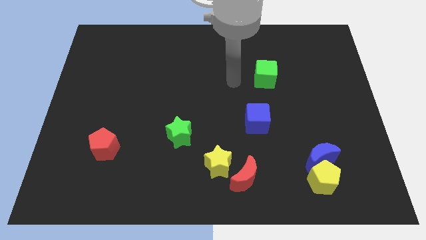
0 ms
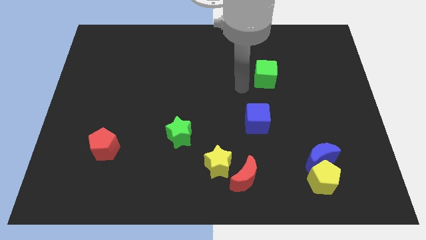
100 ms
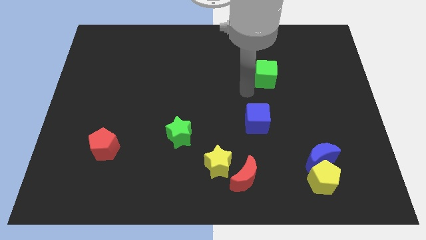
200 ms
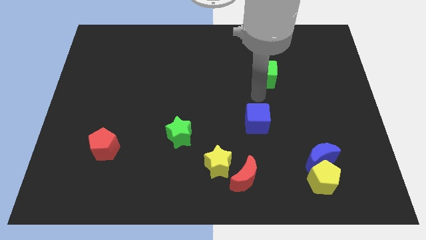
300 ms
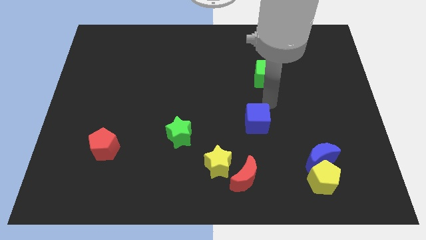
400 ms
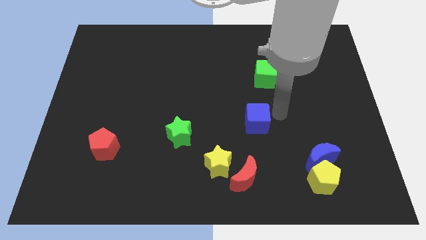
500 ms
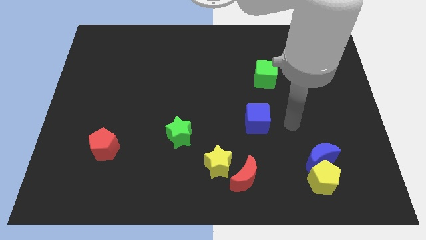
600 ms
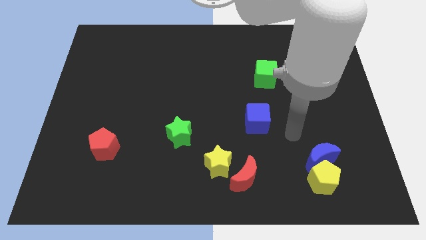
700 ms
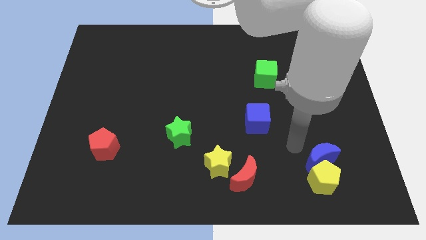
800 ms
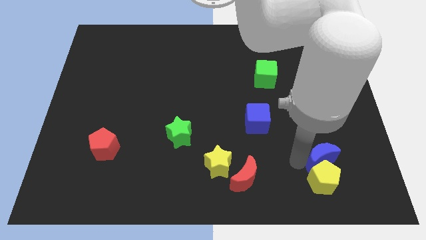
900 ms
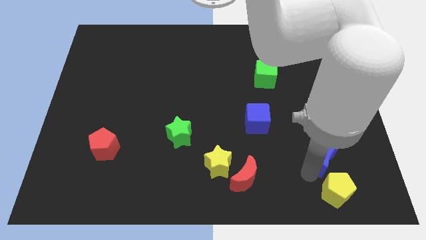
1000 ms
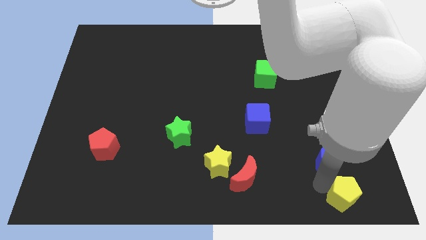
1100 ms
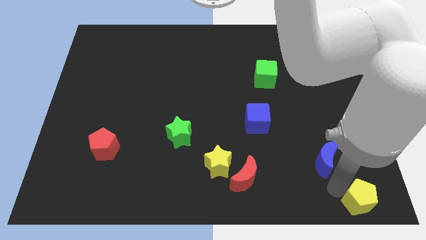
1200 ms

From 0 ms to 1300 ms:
pull the blue moon apart from the yellow pentagon

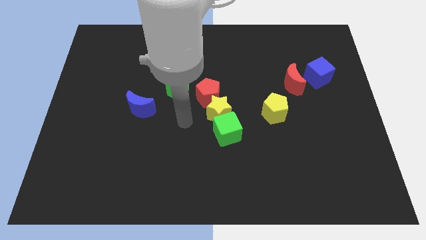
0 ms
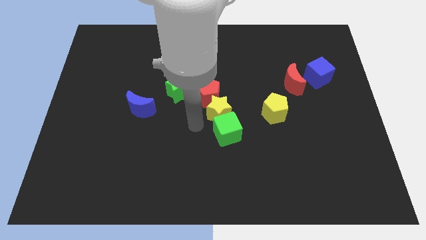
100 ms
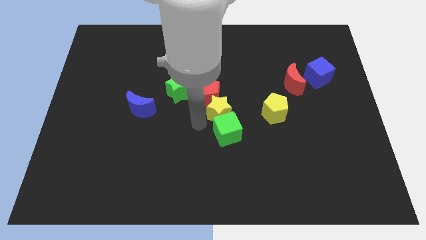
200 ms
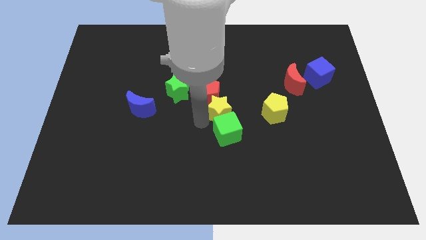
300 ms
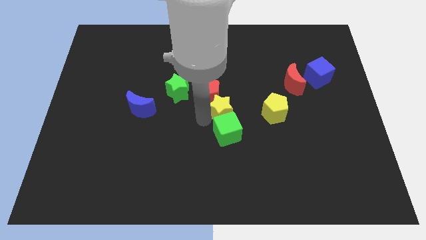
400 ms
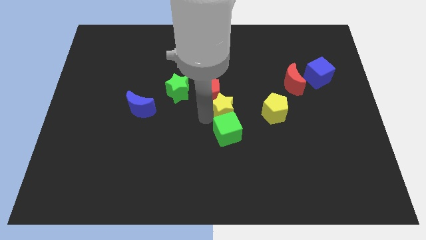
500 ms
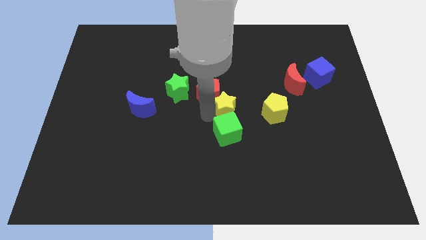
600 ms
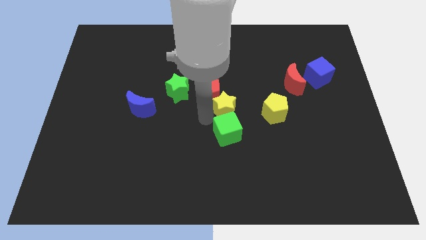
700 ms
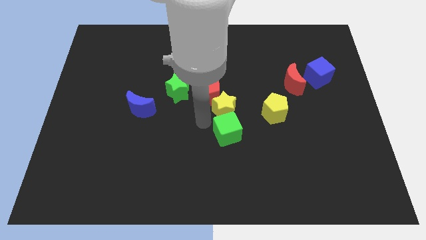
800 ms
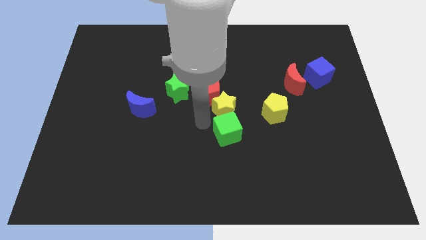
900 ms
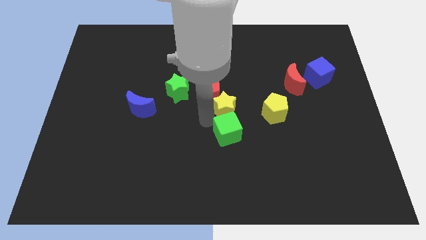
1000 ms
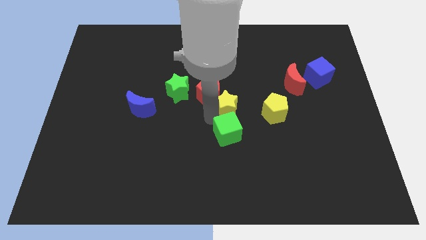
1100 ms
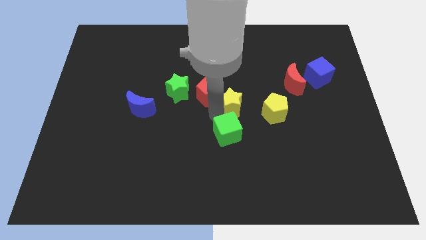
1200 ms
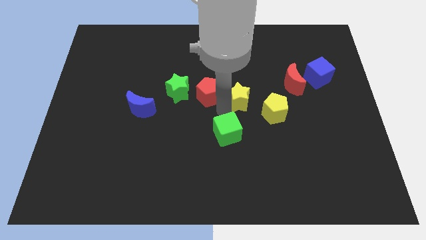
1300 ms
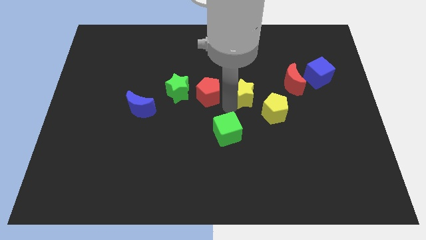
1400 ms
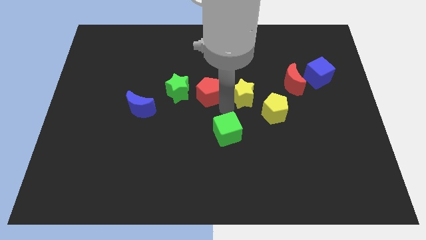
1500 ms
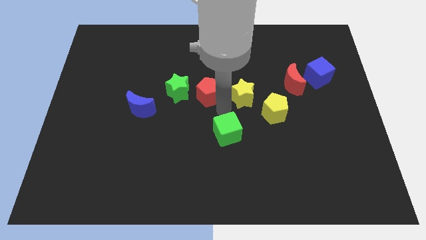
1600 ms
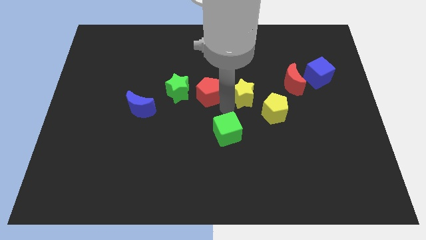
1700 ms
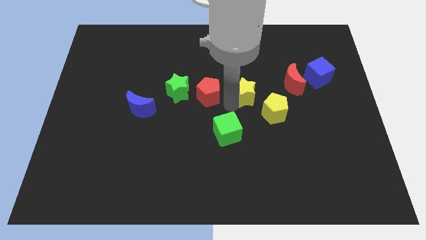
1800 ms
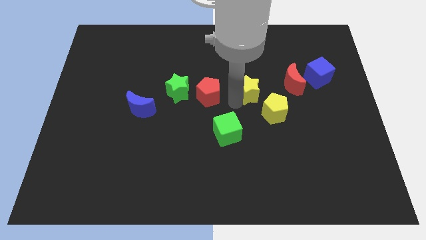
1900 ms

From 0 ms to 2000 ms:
separate the yellow star from the red pentagon and green cube

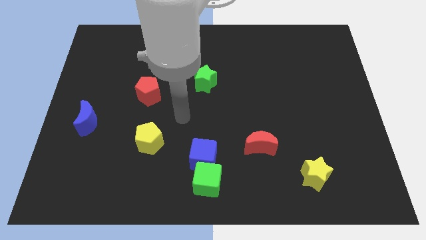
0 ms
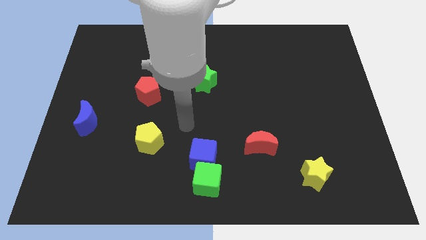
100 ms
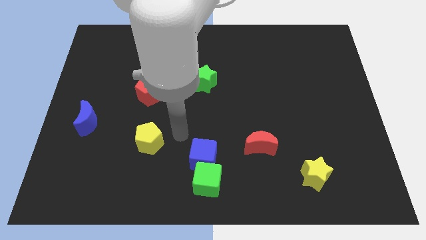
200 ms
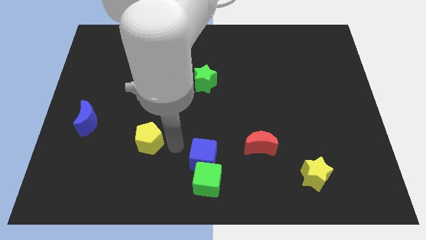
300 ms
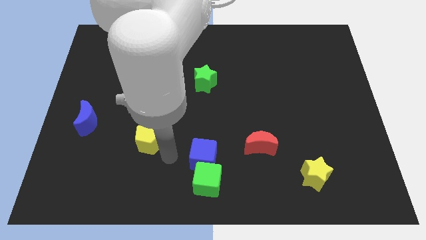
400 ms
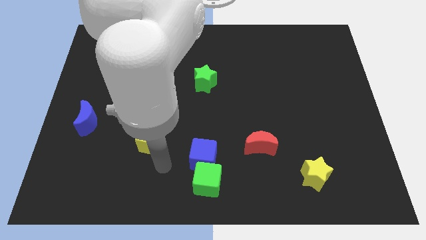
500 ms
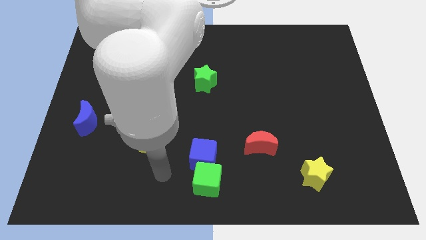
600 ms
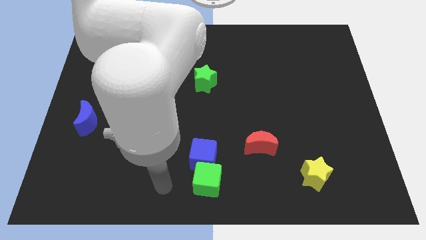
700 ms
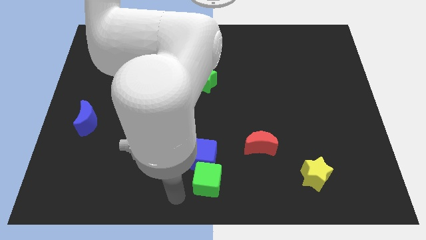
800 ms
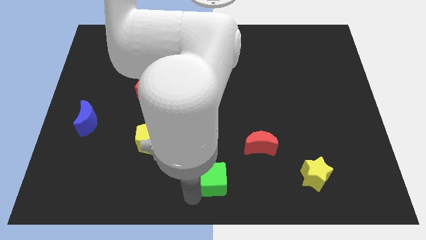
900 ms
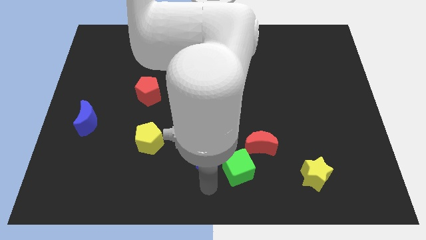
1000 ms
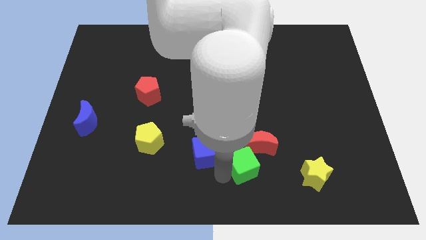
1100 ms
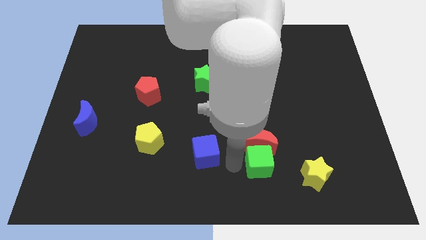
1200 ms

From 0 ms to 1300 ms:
move the blue cube away from the green cube

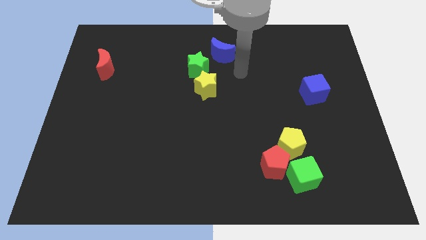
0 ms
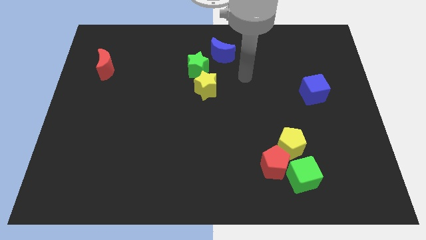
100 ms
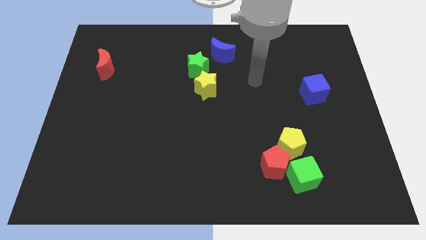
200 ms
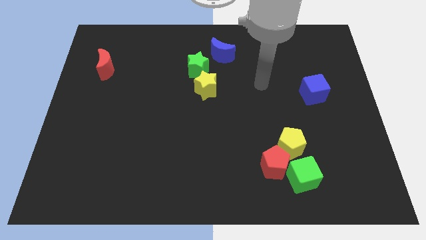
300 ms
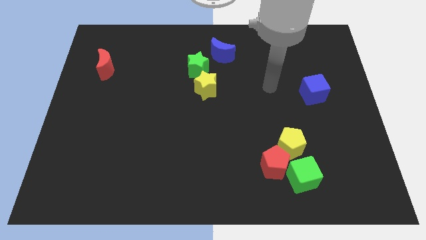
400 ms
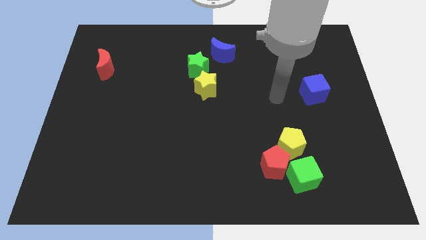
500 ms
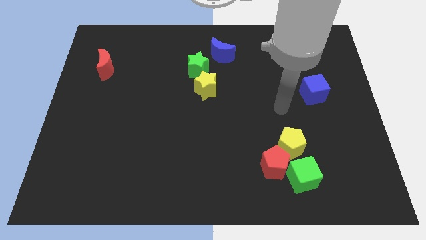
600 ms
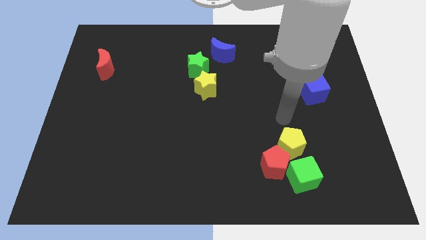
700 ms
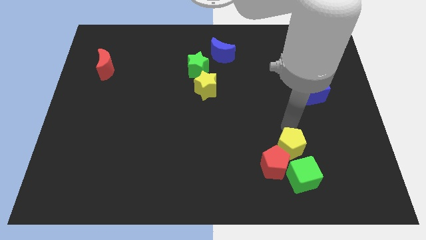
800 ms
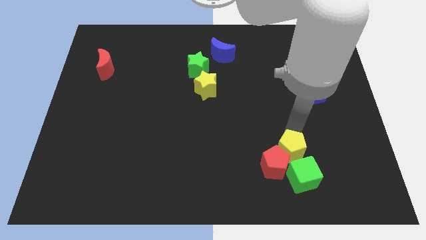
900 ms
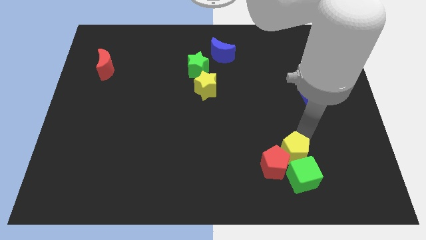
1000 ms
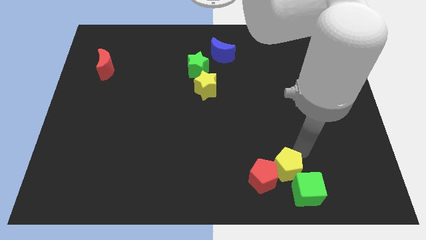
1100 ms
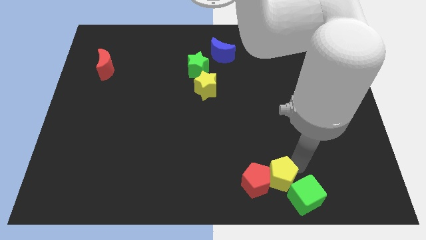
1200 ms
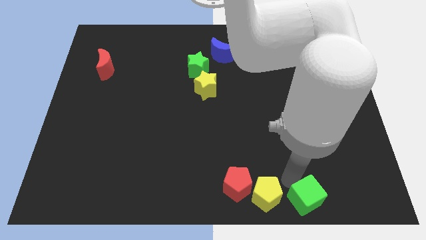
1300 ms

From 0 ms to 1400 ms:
separate the red pentagon from the yellow pentagon and green cube

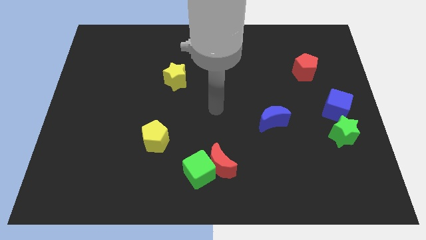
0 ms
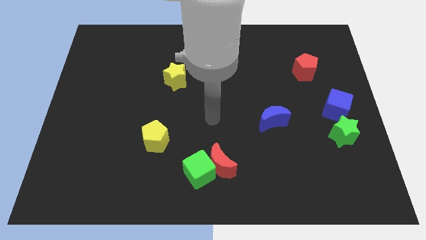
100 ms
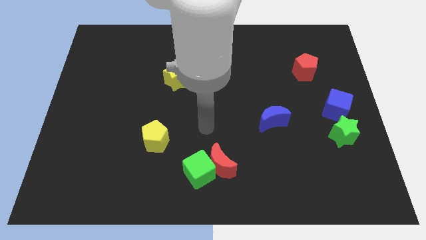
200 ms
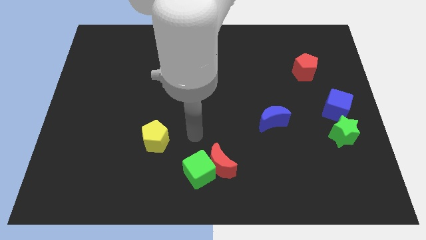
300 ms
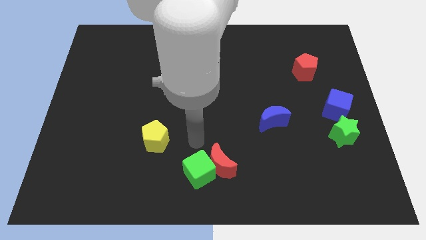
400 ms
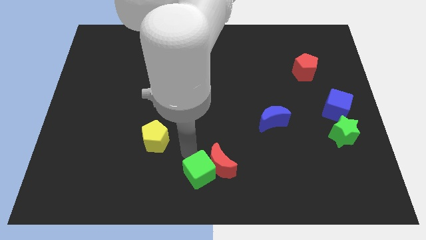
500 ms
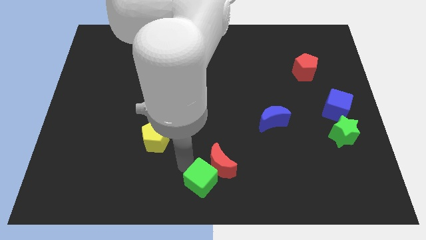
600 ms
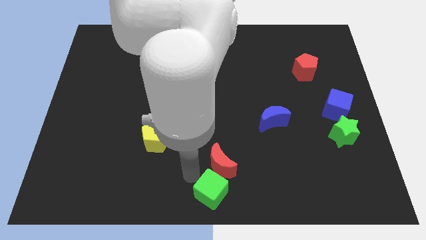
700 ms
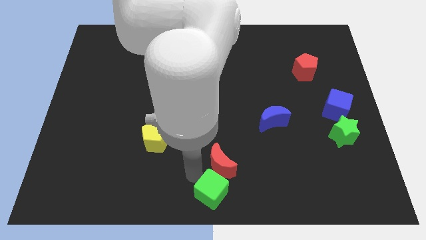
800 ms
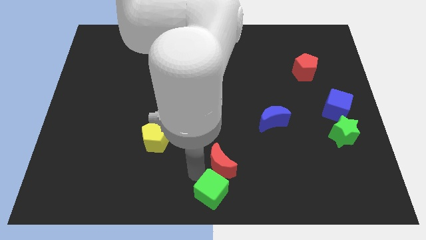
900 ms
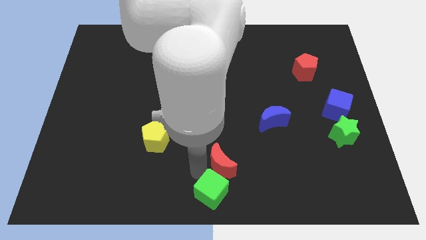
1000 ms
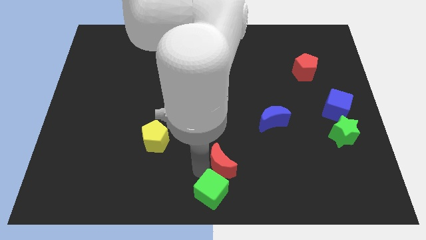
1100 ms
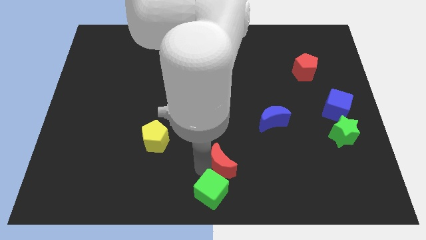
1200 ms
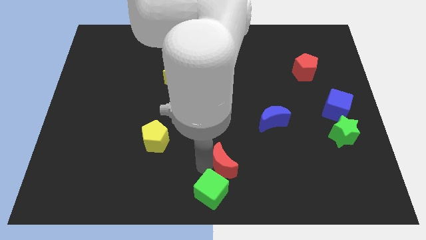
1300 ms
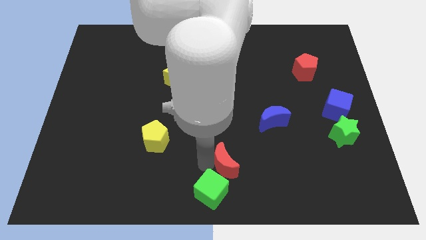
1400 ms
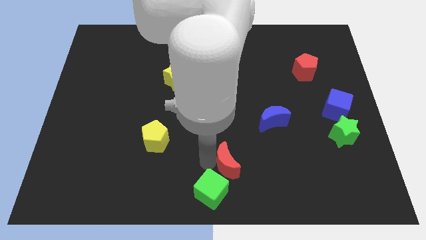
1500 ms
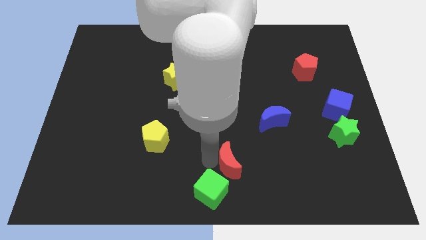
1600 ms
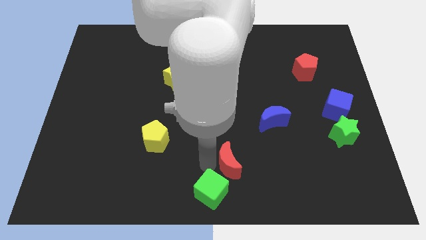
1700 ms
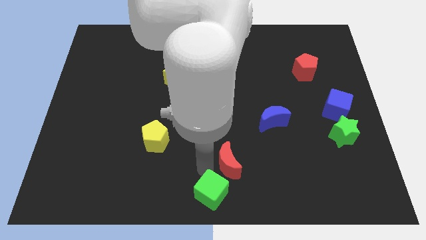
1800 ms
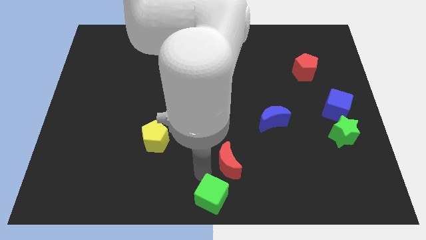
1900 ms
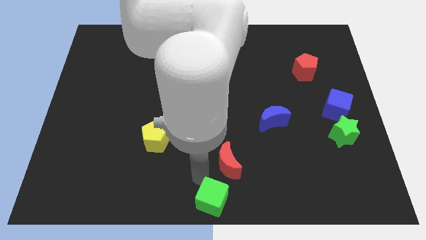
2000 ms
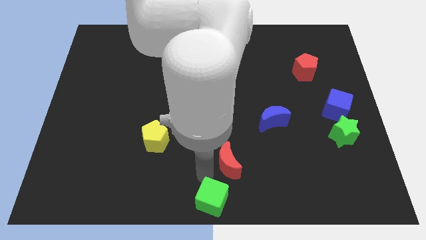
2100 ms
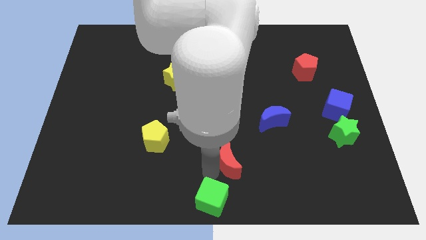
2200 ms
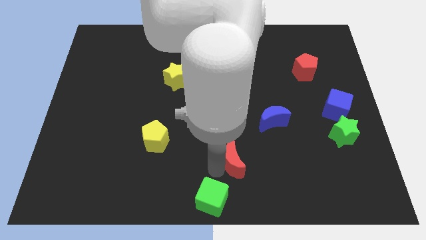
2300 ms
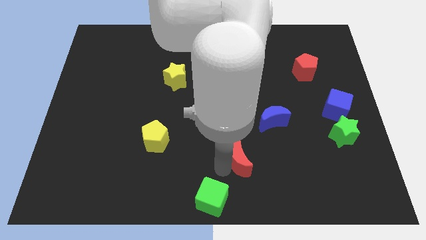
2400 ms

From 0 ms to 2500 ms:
pull the red moon apart from the green cube

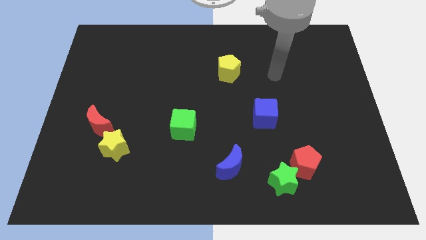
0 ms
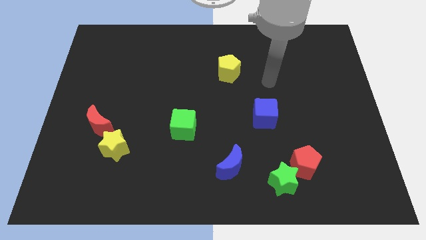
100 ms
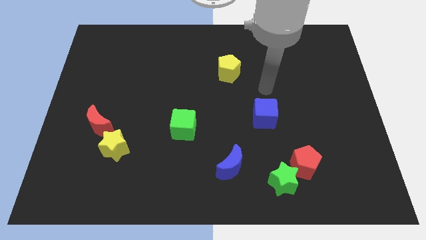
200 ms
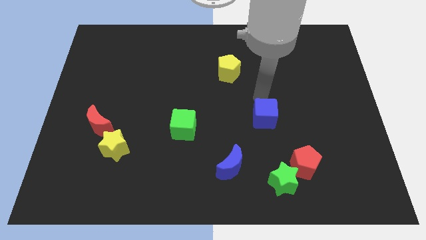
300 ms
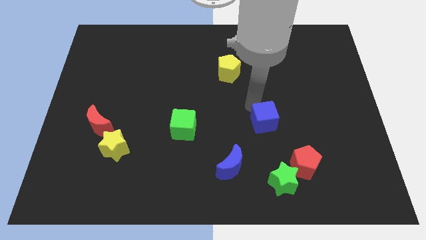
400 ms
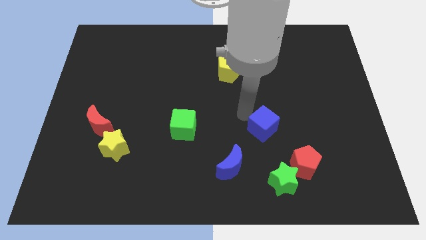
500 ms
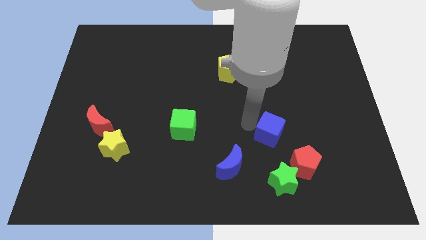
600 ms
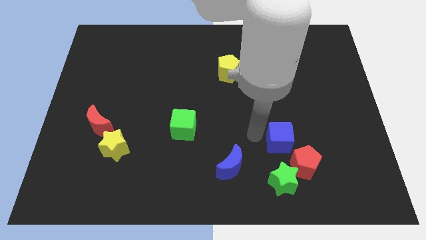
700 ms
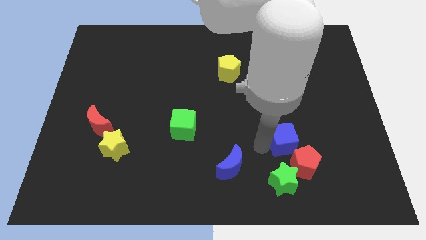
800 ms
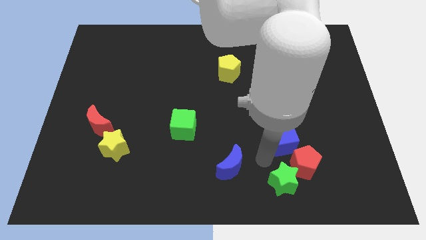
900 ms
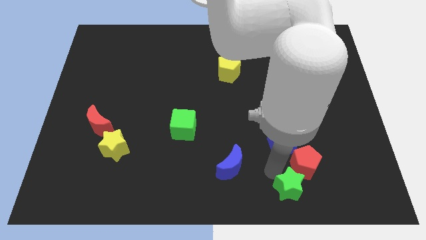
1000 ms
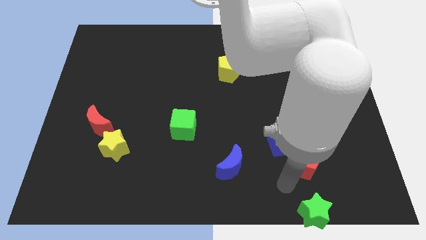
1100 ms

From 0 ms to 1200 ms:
separate the red pentagon from the green star
